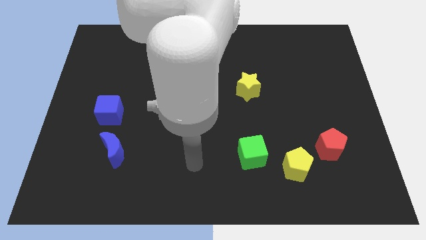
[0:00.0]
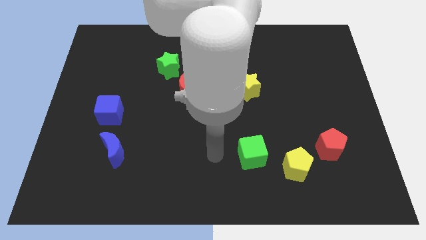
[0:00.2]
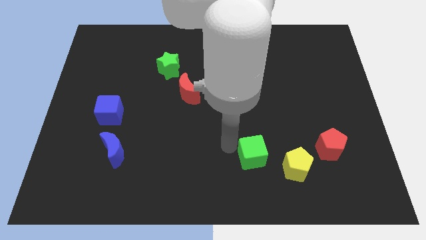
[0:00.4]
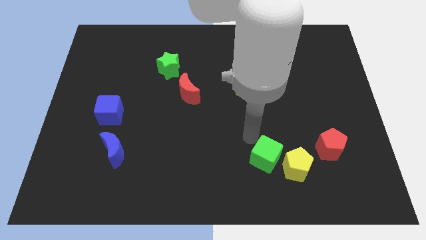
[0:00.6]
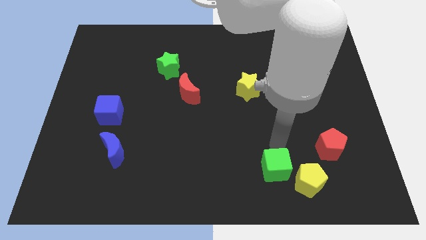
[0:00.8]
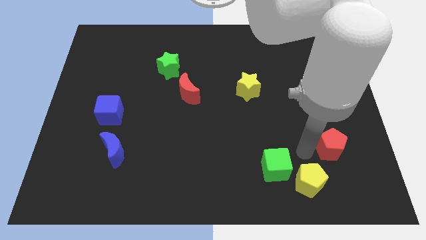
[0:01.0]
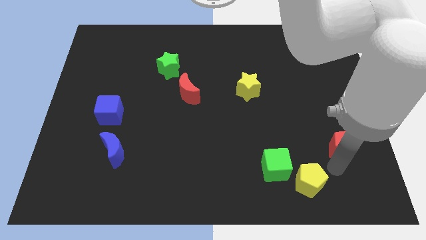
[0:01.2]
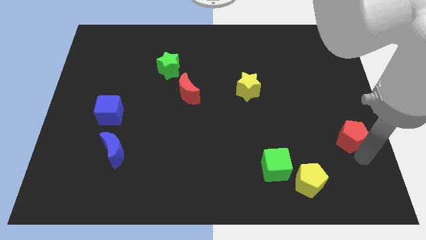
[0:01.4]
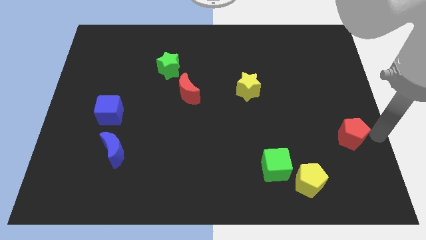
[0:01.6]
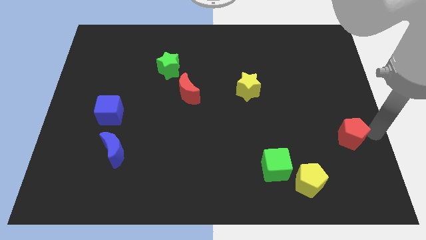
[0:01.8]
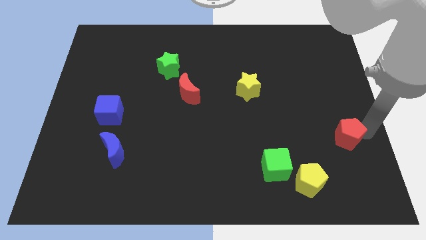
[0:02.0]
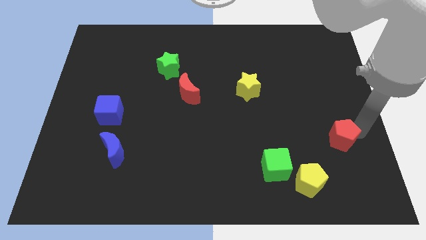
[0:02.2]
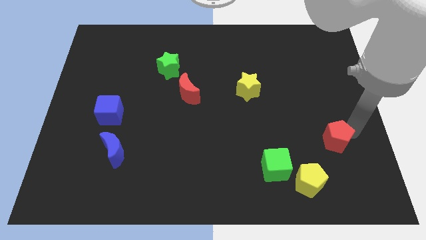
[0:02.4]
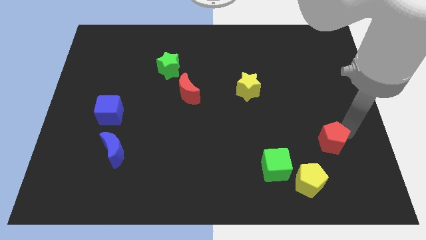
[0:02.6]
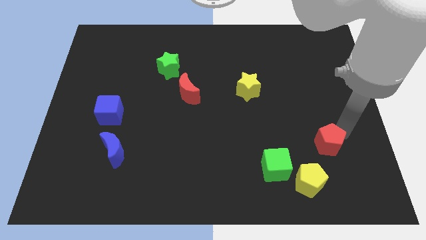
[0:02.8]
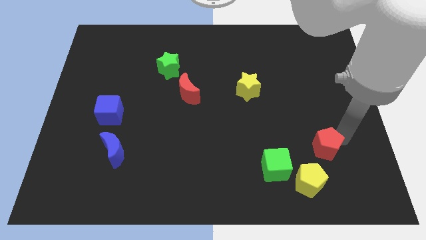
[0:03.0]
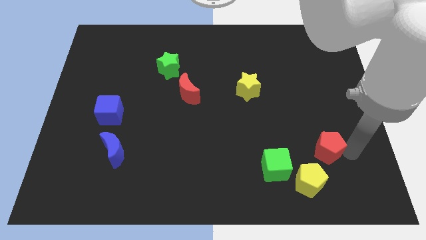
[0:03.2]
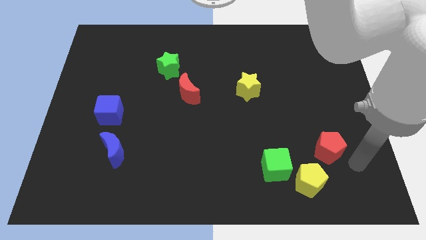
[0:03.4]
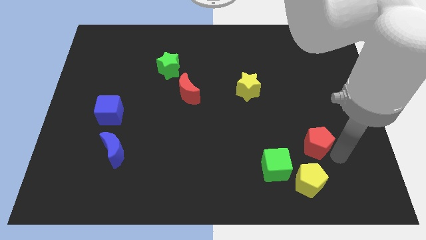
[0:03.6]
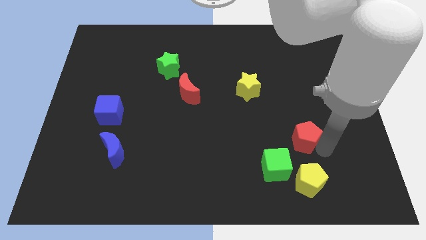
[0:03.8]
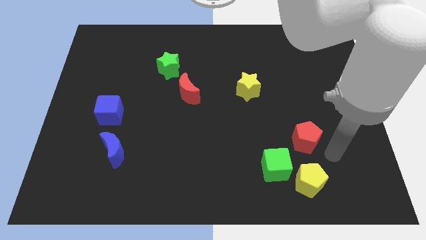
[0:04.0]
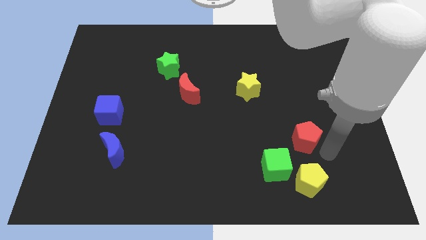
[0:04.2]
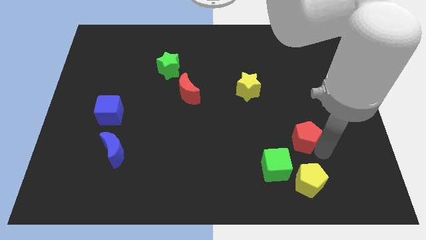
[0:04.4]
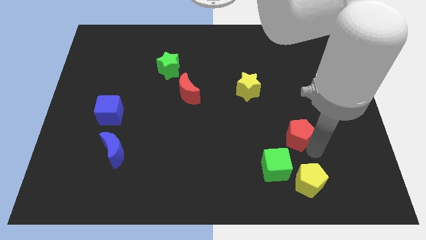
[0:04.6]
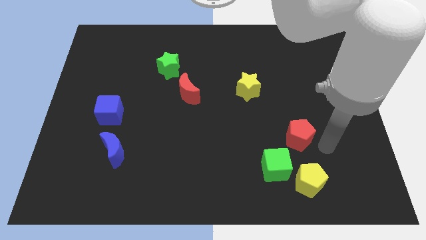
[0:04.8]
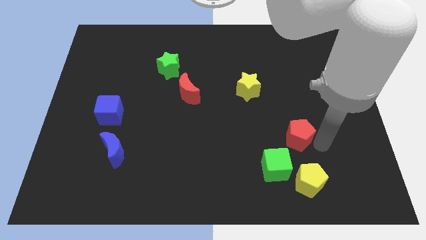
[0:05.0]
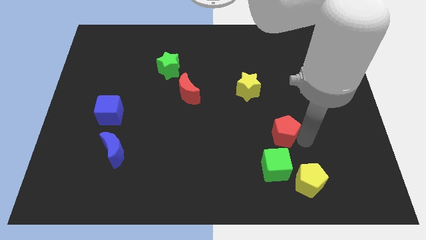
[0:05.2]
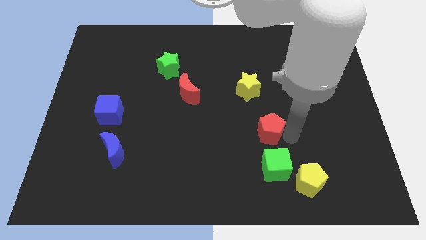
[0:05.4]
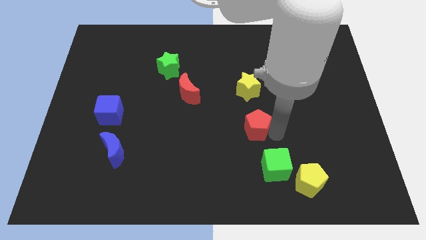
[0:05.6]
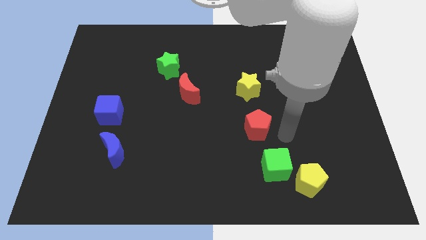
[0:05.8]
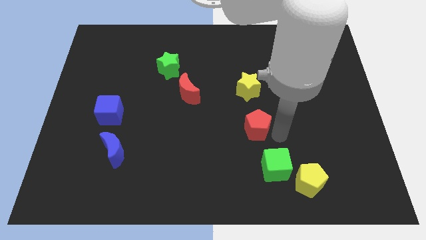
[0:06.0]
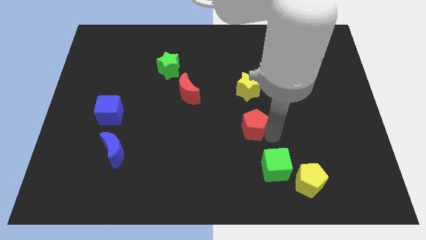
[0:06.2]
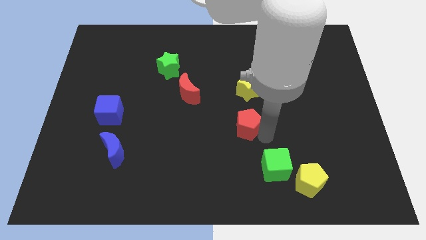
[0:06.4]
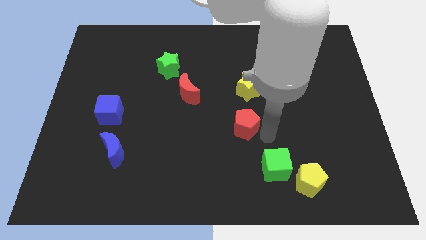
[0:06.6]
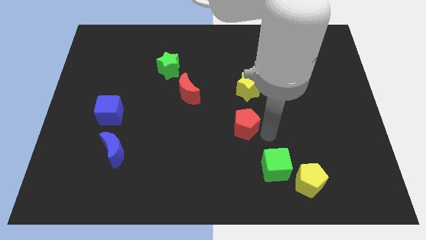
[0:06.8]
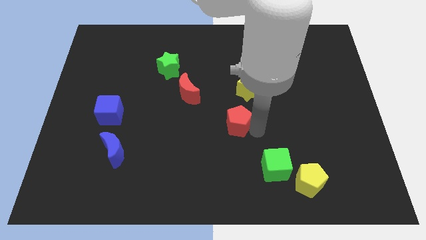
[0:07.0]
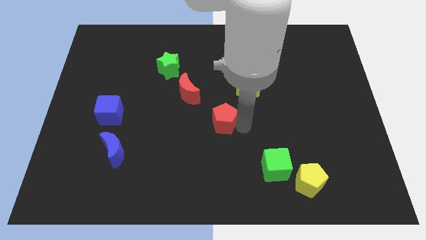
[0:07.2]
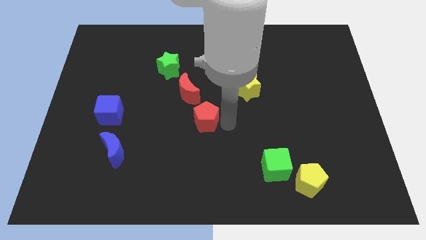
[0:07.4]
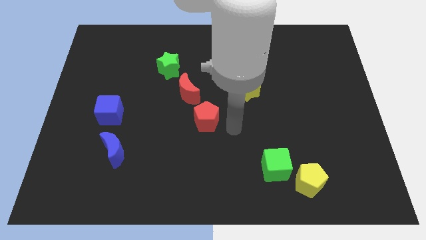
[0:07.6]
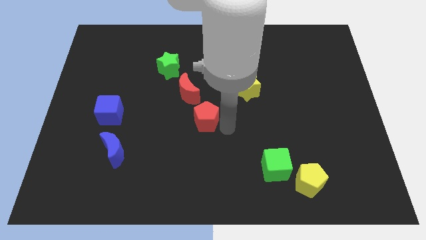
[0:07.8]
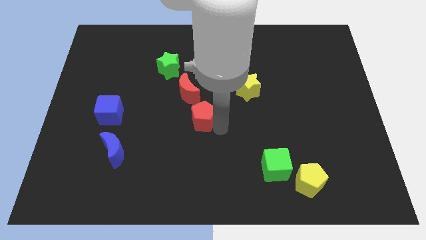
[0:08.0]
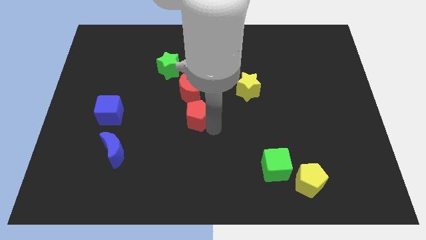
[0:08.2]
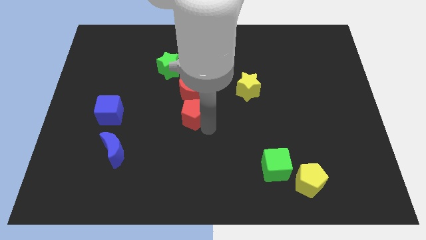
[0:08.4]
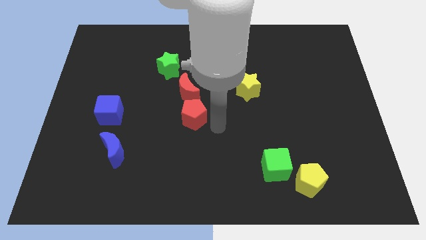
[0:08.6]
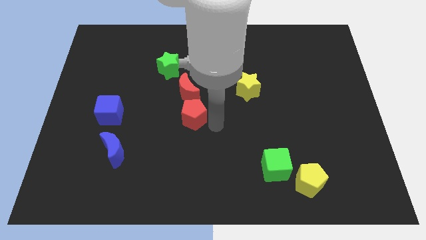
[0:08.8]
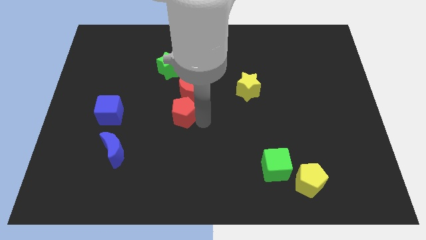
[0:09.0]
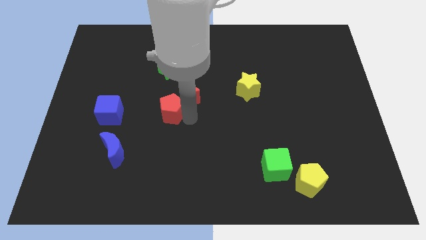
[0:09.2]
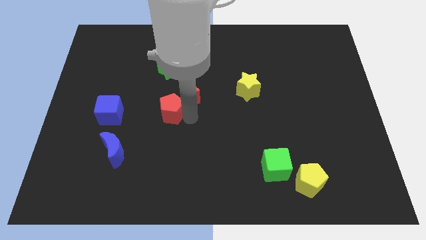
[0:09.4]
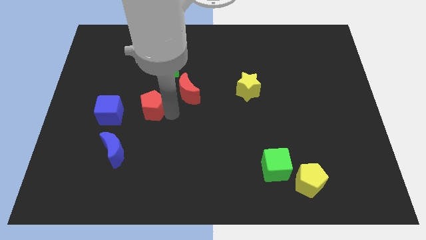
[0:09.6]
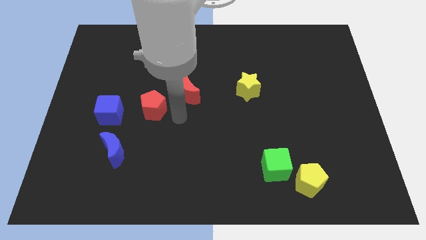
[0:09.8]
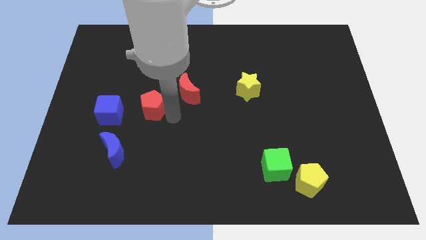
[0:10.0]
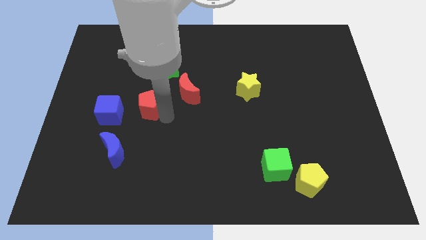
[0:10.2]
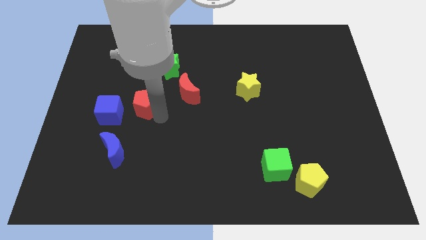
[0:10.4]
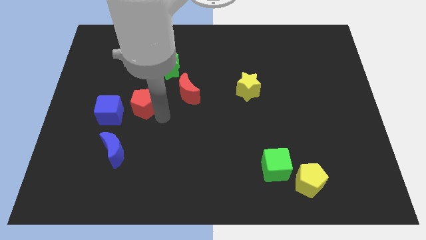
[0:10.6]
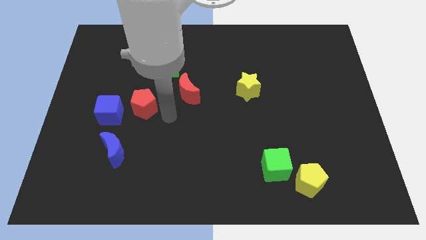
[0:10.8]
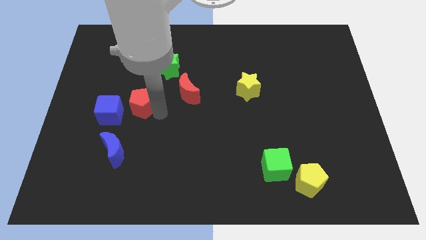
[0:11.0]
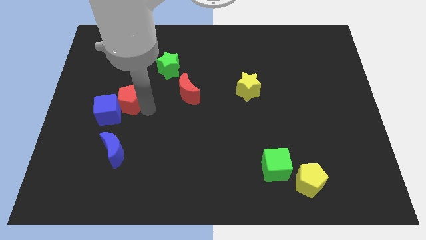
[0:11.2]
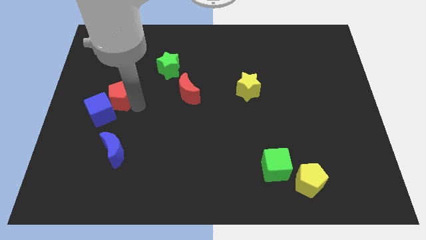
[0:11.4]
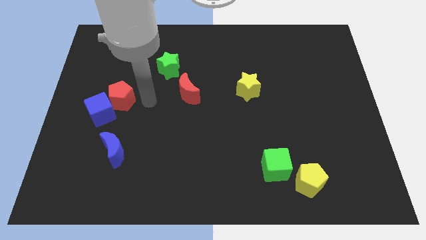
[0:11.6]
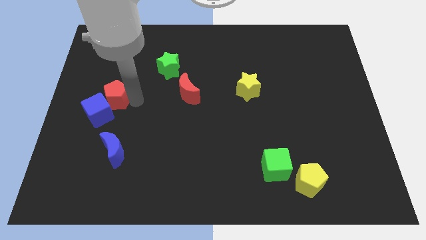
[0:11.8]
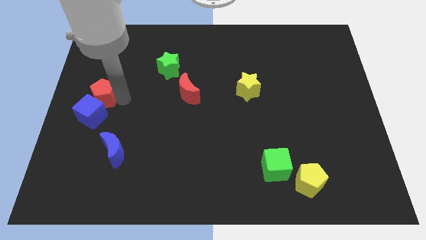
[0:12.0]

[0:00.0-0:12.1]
put the red pentagon to the left side
